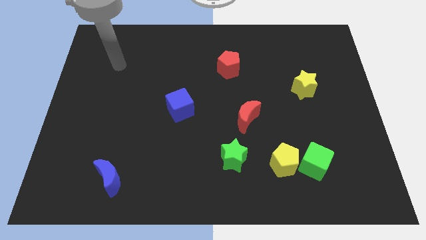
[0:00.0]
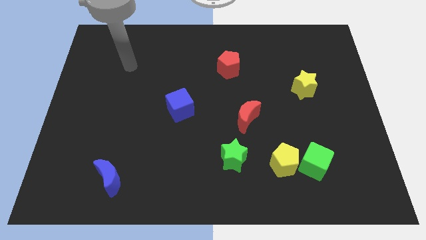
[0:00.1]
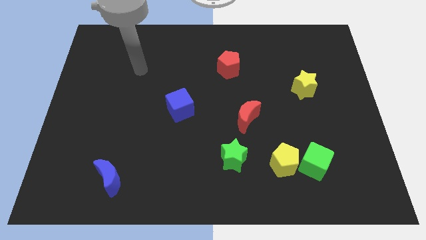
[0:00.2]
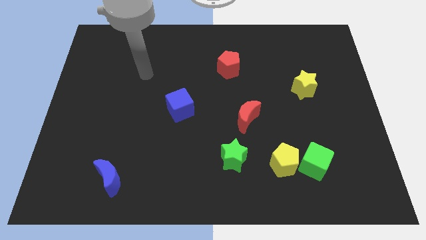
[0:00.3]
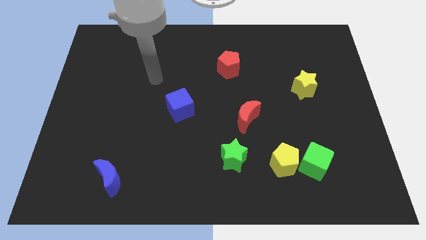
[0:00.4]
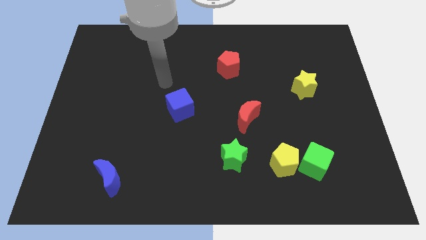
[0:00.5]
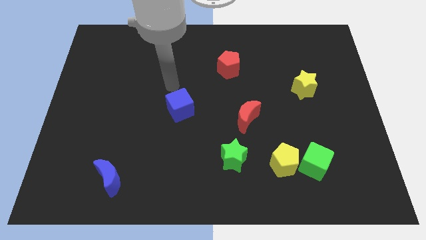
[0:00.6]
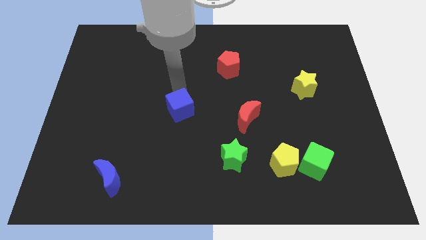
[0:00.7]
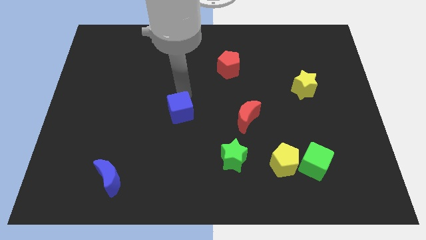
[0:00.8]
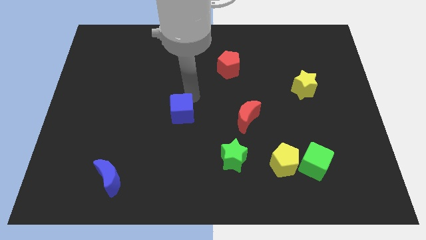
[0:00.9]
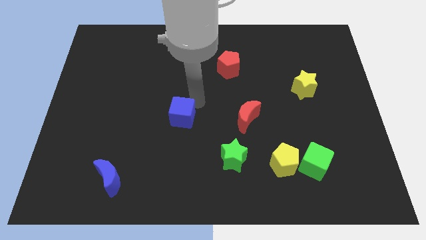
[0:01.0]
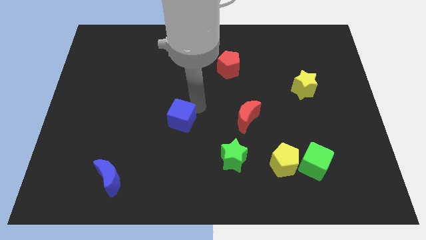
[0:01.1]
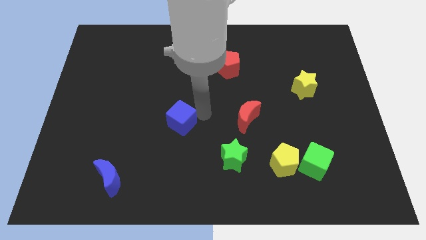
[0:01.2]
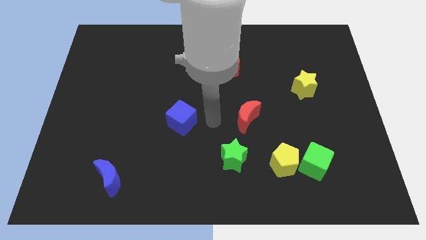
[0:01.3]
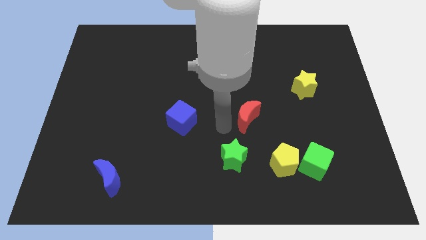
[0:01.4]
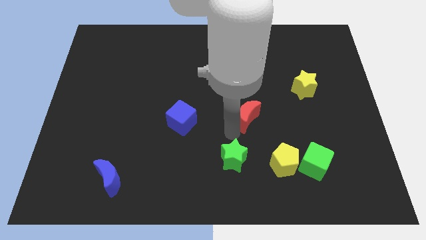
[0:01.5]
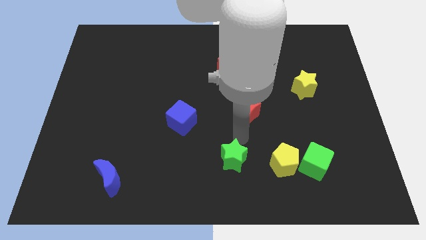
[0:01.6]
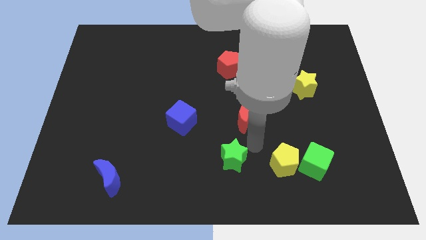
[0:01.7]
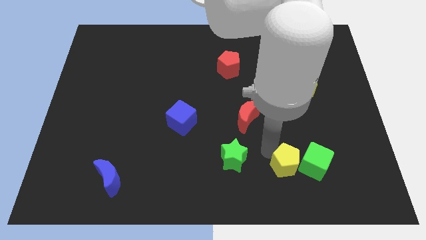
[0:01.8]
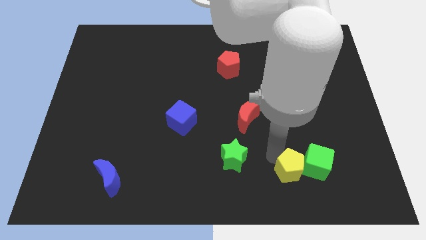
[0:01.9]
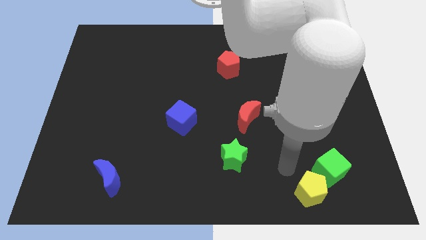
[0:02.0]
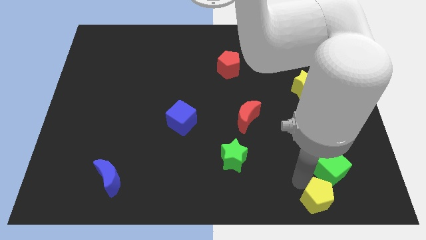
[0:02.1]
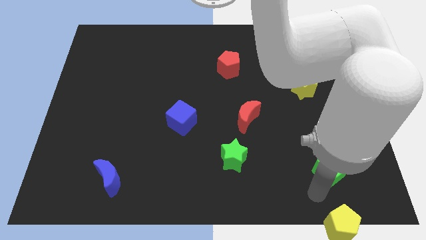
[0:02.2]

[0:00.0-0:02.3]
pull the green cube apart from the yellow pentagon

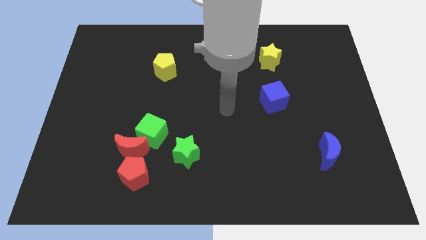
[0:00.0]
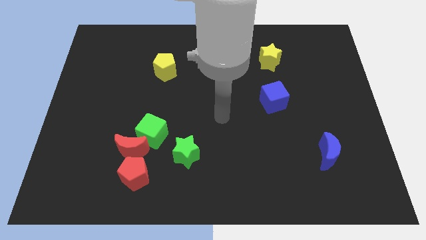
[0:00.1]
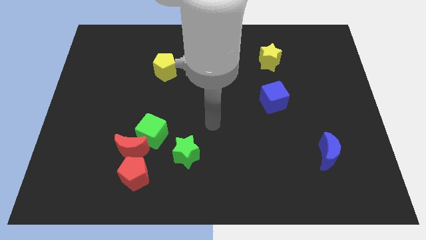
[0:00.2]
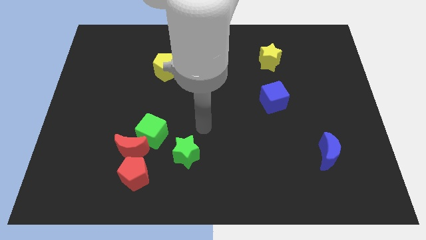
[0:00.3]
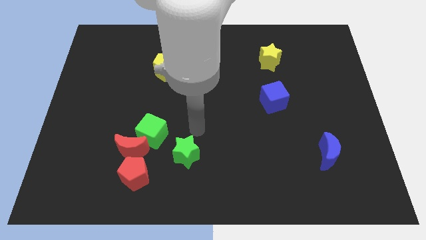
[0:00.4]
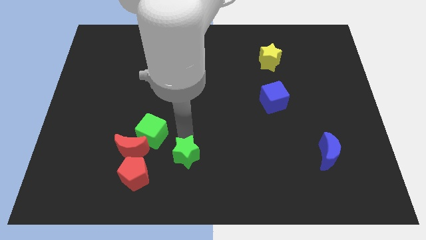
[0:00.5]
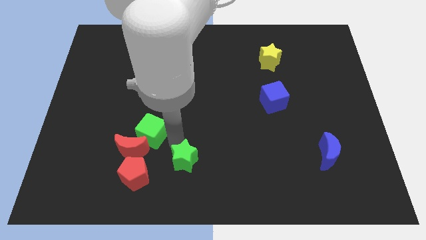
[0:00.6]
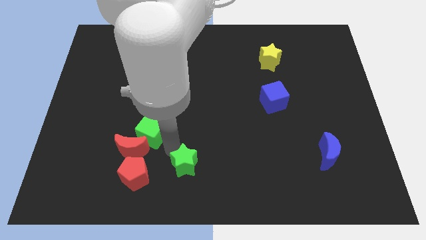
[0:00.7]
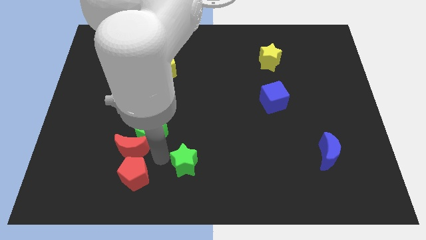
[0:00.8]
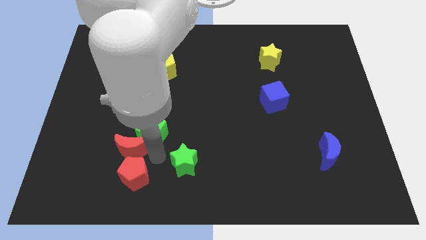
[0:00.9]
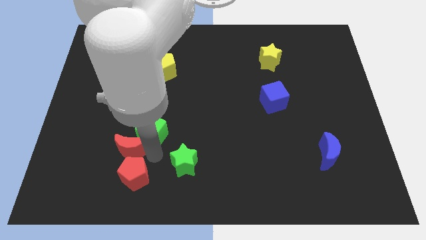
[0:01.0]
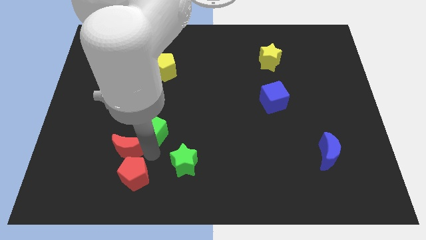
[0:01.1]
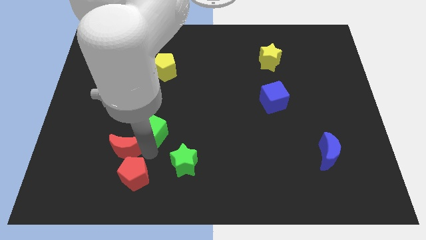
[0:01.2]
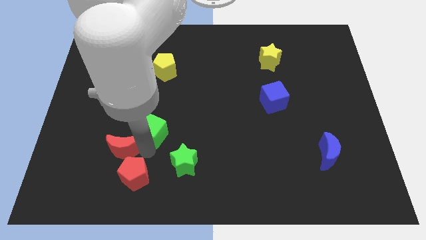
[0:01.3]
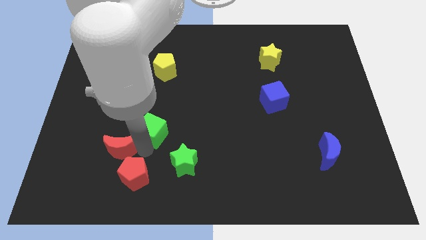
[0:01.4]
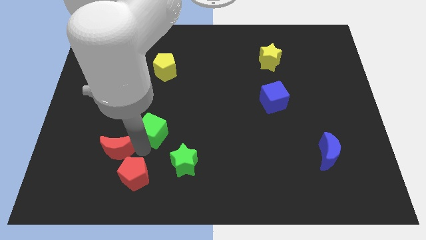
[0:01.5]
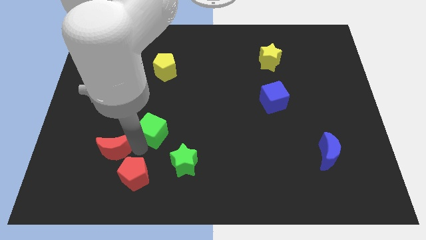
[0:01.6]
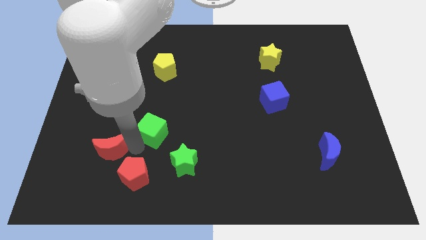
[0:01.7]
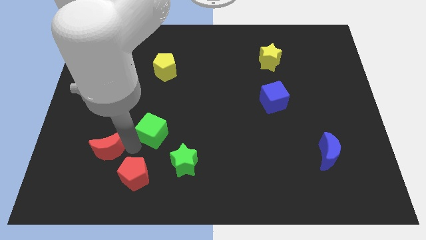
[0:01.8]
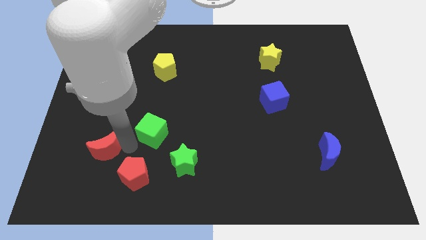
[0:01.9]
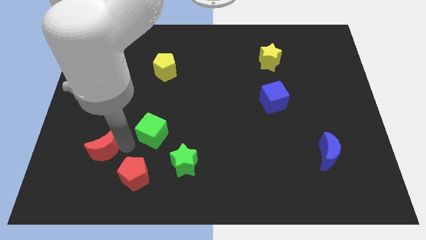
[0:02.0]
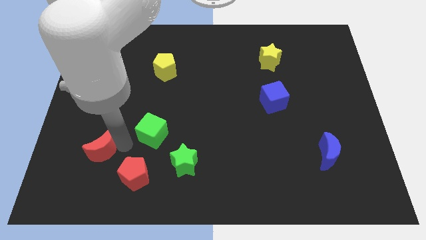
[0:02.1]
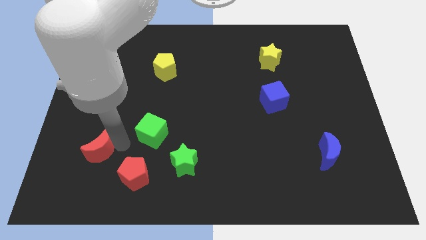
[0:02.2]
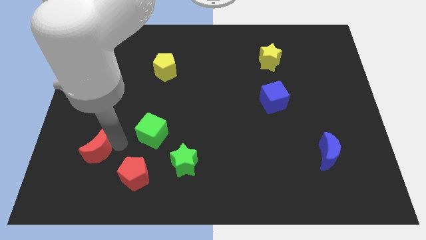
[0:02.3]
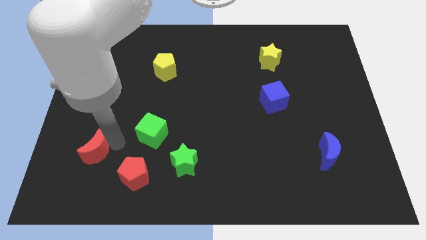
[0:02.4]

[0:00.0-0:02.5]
separate the red moon from the green cube and red pentagon

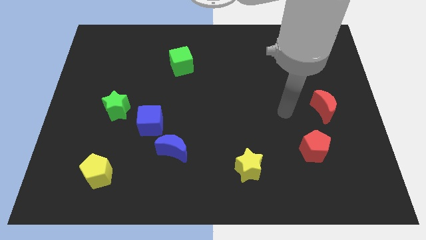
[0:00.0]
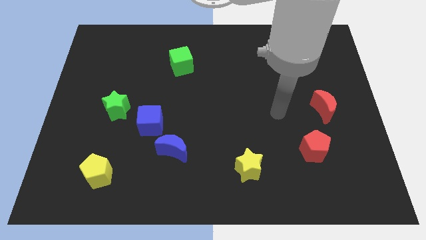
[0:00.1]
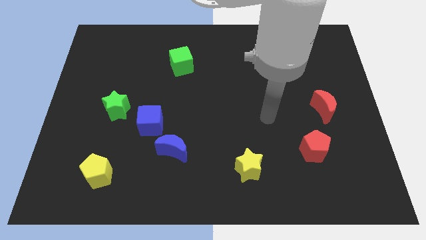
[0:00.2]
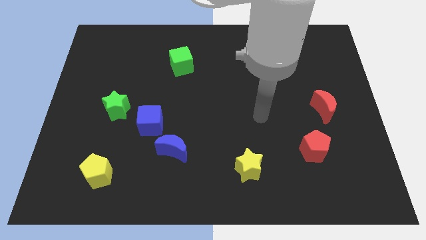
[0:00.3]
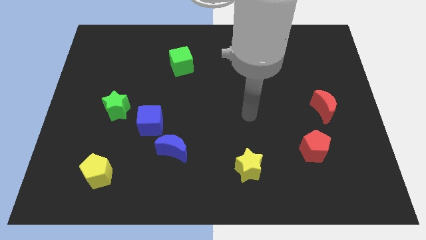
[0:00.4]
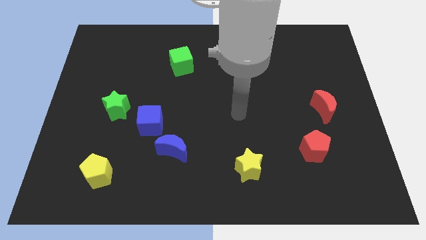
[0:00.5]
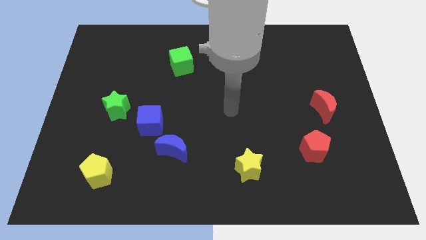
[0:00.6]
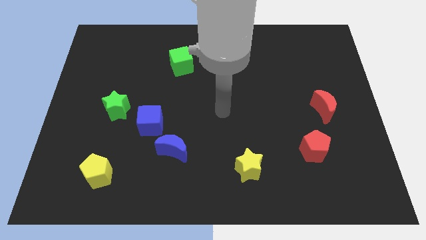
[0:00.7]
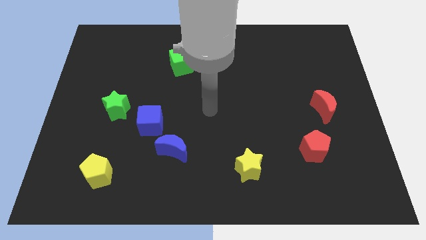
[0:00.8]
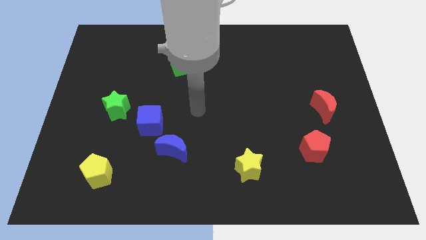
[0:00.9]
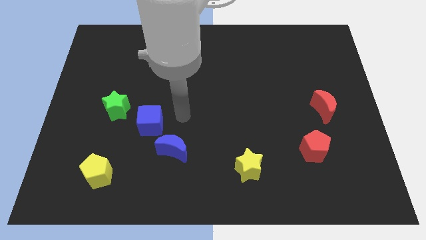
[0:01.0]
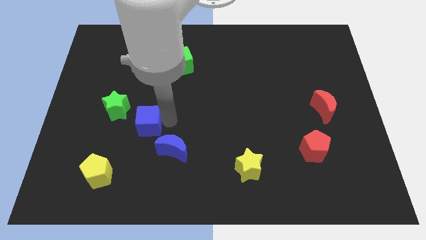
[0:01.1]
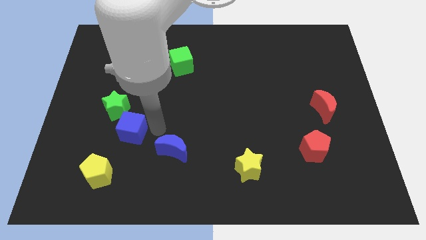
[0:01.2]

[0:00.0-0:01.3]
separate the blue moon from the blue cube

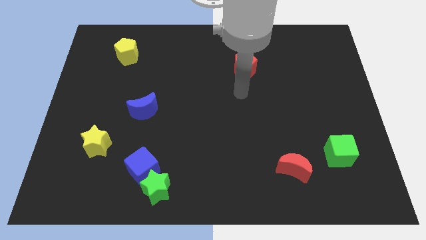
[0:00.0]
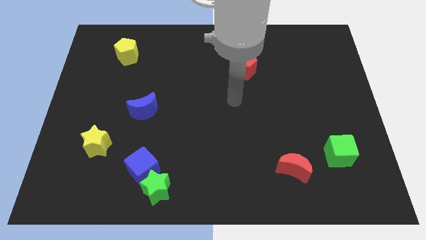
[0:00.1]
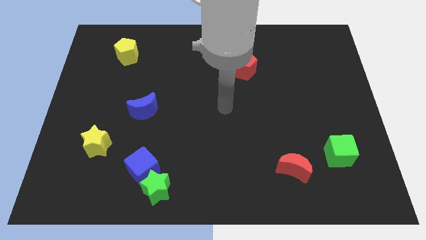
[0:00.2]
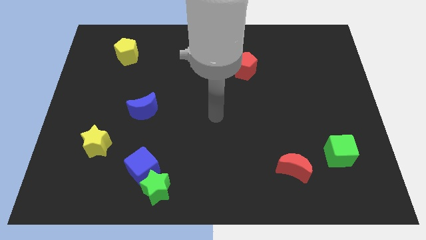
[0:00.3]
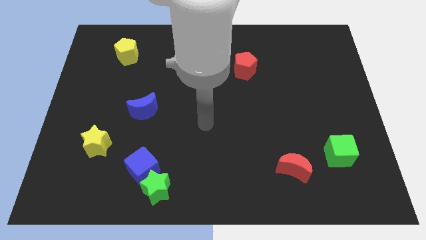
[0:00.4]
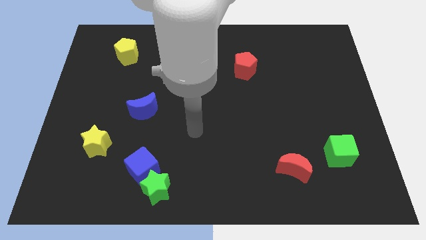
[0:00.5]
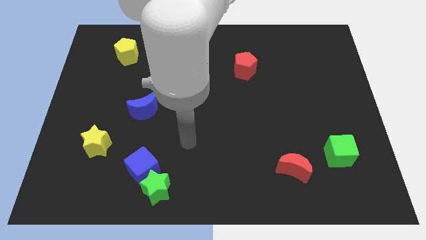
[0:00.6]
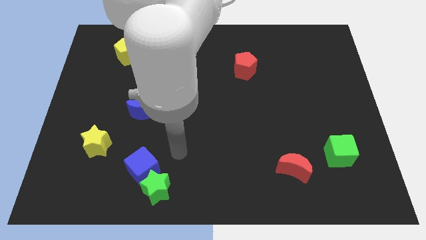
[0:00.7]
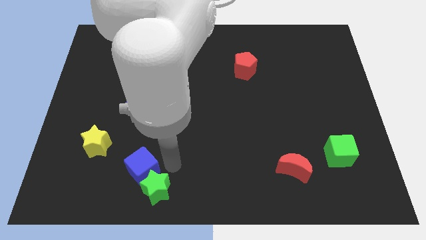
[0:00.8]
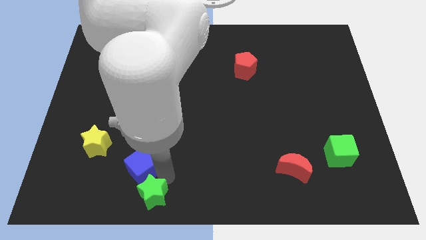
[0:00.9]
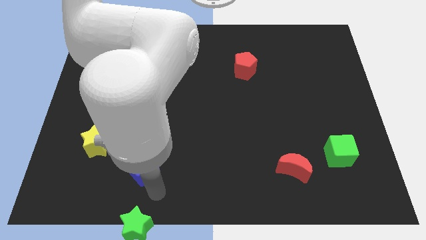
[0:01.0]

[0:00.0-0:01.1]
separate the blue cube from the green star

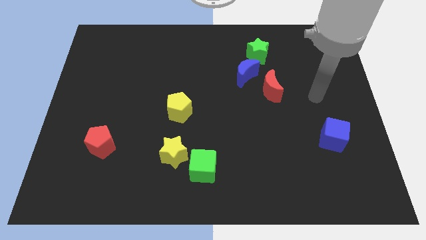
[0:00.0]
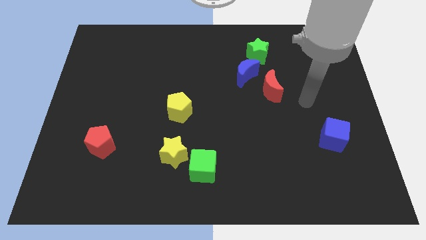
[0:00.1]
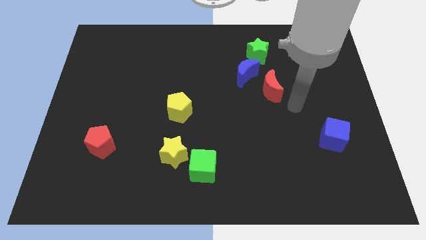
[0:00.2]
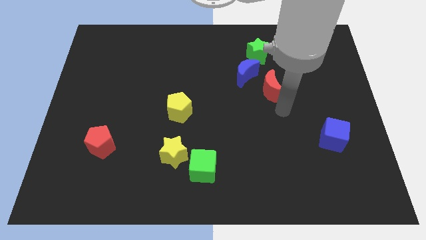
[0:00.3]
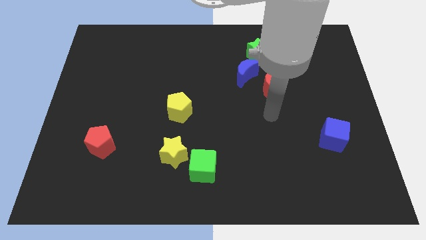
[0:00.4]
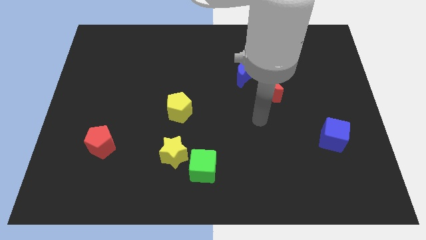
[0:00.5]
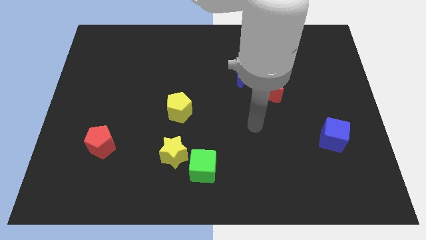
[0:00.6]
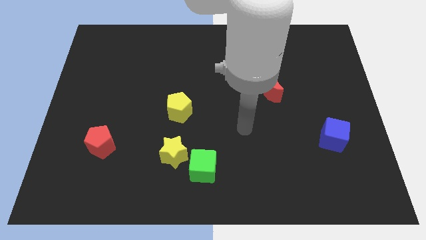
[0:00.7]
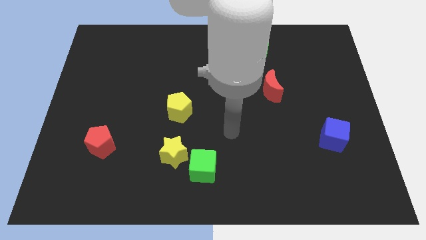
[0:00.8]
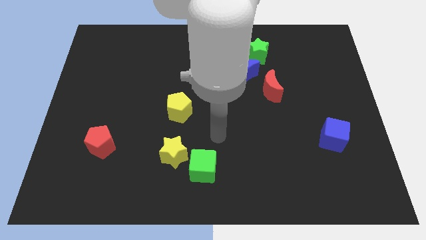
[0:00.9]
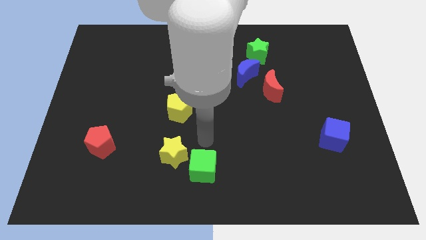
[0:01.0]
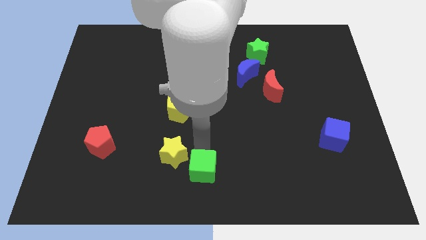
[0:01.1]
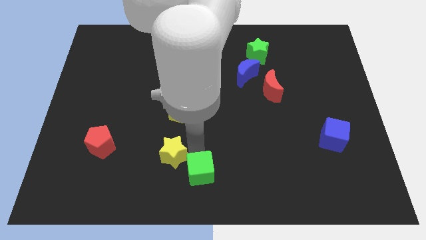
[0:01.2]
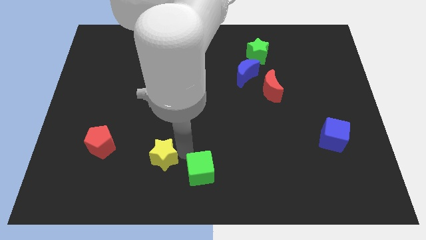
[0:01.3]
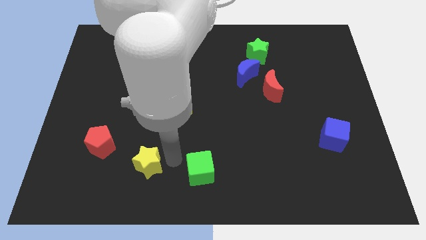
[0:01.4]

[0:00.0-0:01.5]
separate the green cube from the yellow star

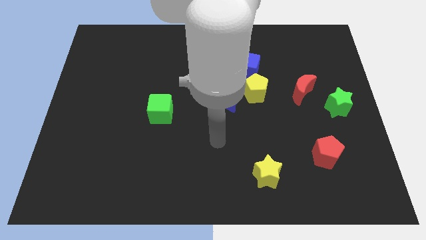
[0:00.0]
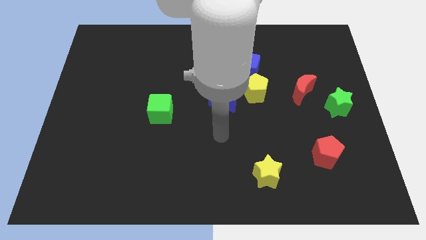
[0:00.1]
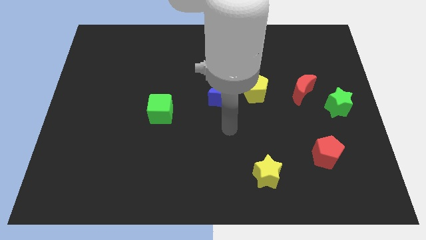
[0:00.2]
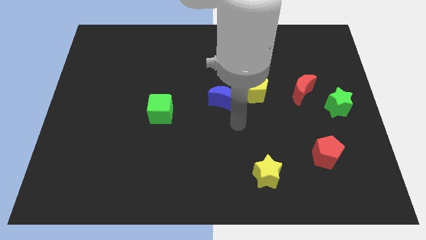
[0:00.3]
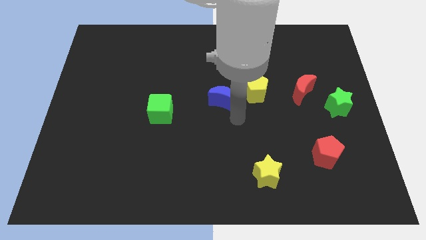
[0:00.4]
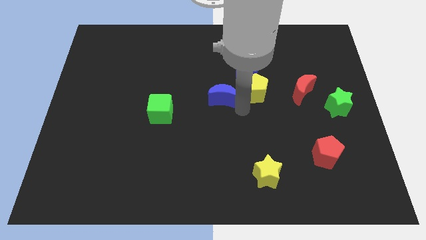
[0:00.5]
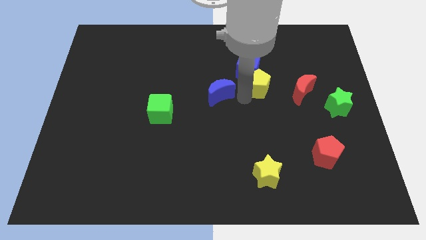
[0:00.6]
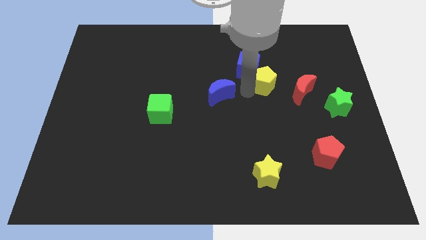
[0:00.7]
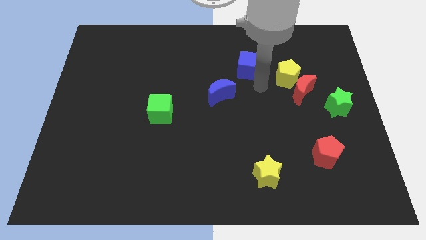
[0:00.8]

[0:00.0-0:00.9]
move the blue cube away from the yellow pentagon
